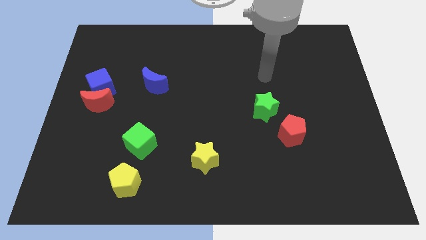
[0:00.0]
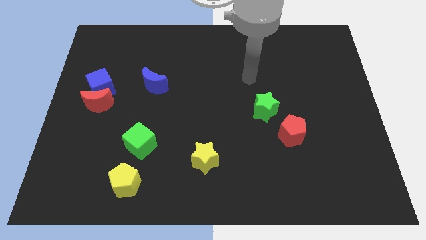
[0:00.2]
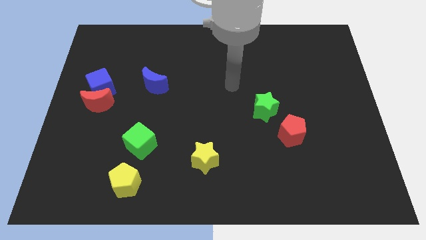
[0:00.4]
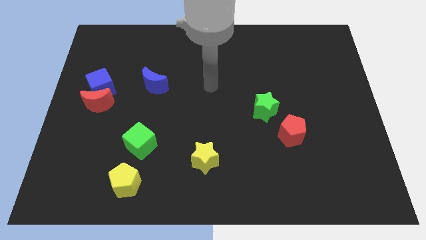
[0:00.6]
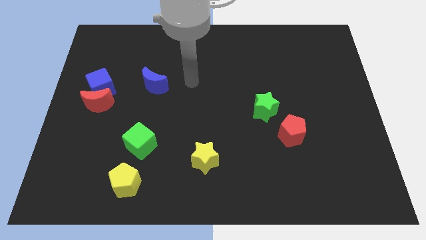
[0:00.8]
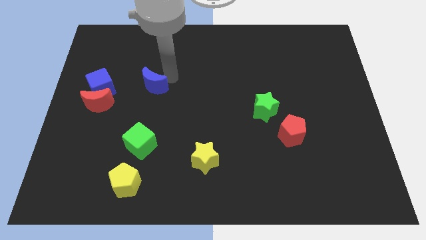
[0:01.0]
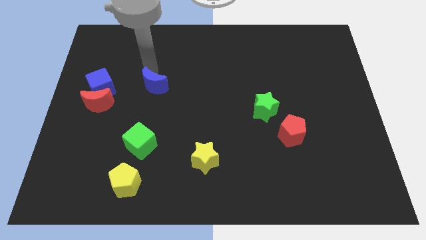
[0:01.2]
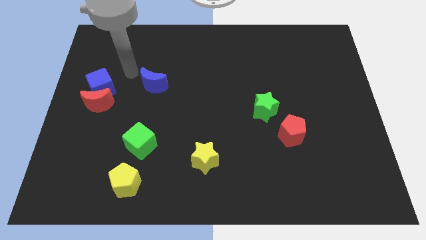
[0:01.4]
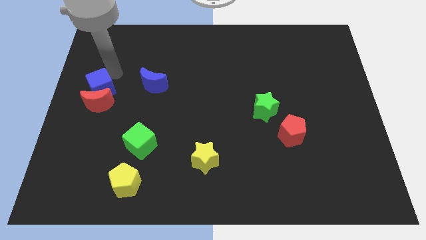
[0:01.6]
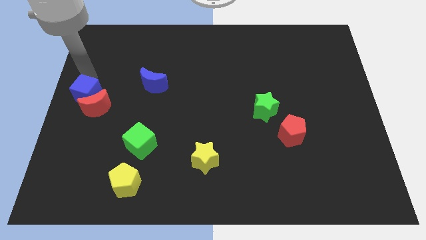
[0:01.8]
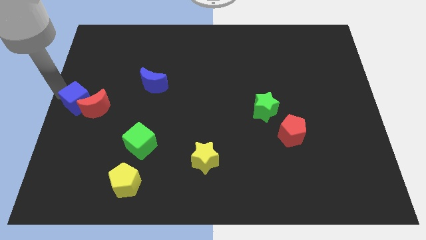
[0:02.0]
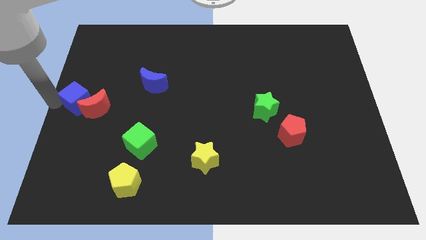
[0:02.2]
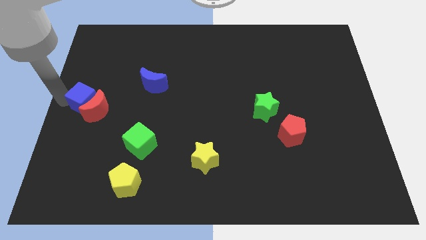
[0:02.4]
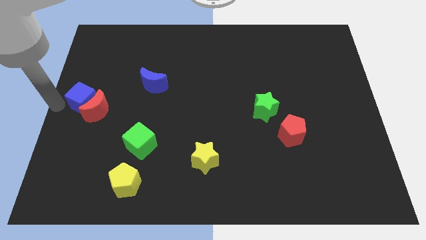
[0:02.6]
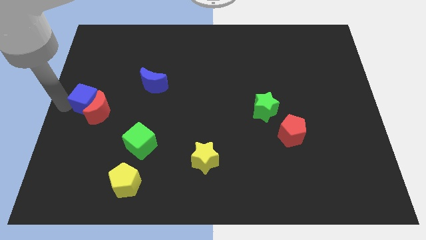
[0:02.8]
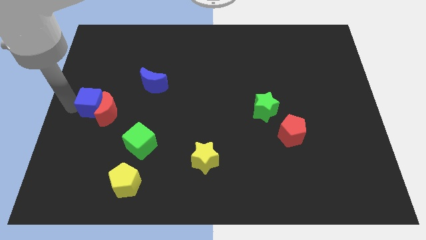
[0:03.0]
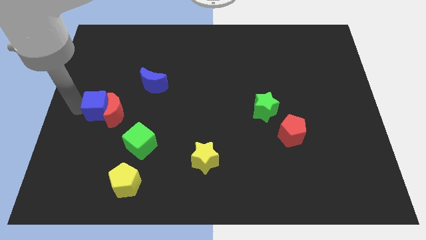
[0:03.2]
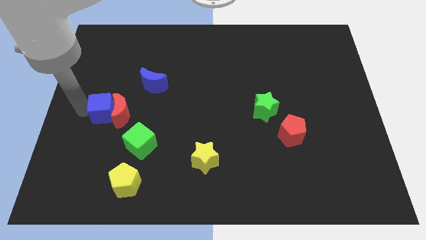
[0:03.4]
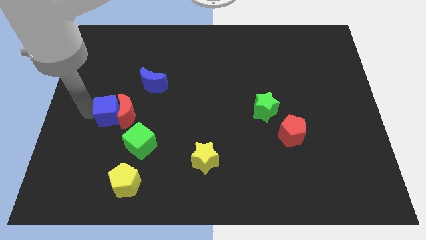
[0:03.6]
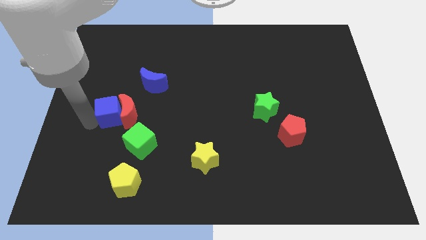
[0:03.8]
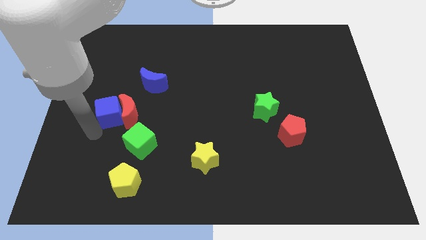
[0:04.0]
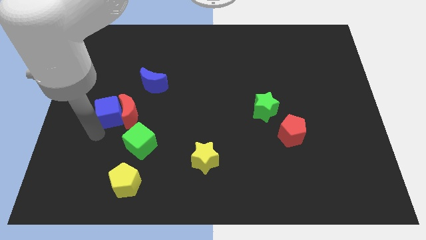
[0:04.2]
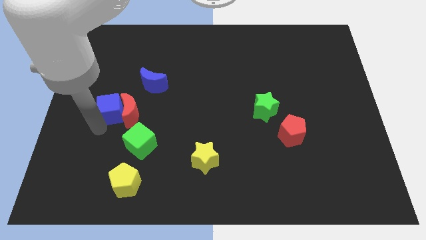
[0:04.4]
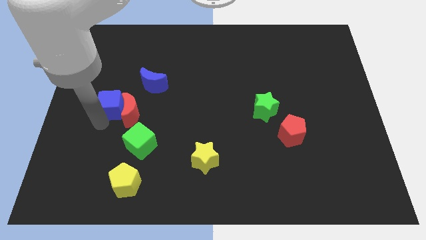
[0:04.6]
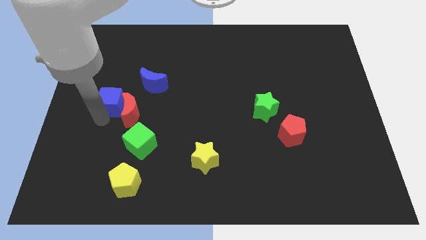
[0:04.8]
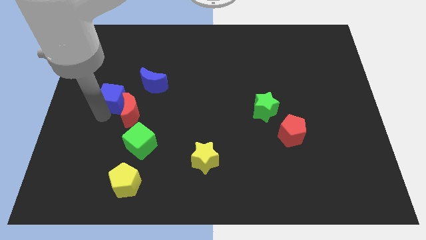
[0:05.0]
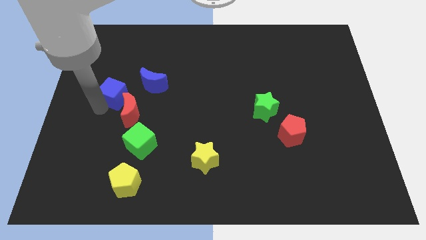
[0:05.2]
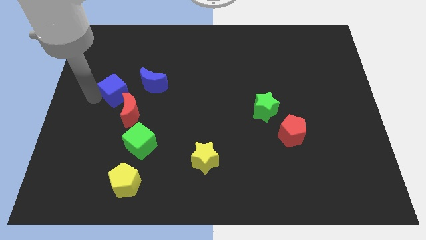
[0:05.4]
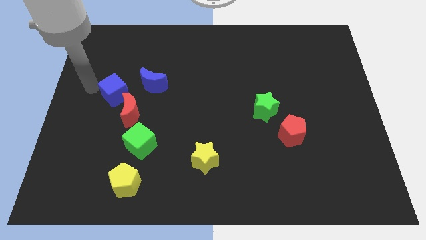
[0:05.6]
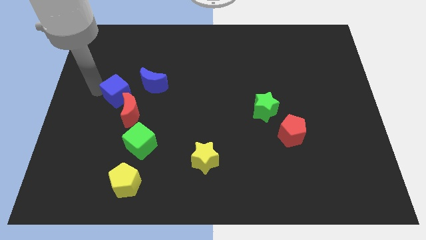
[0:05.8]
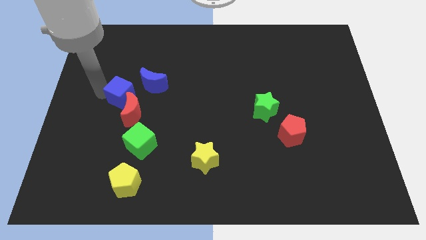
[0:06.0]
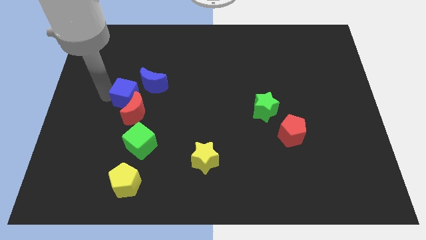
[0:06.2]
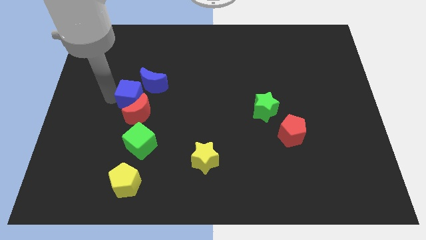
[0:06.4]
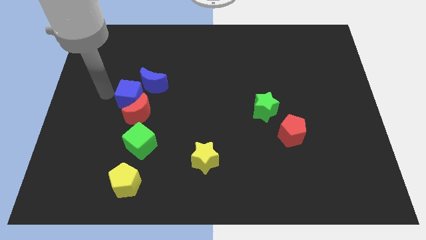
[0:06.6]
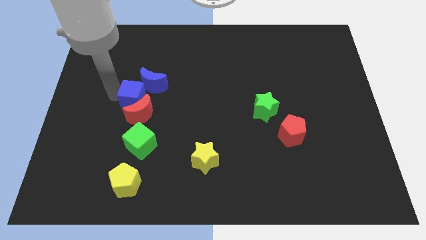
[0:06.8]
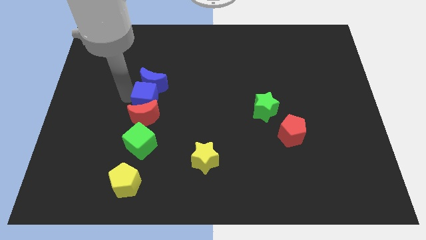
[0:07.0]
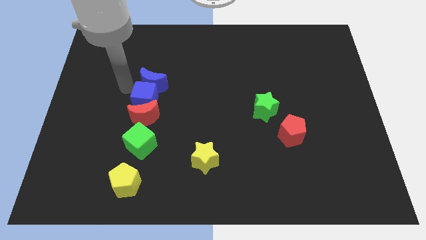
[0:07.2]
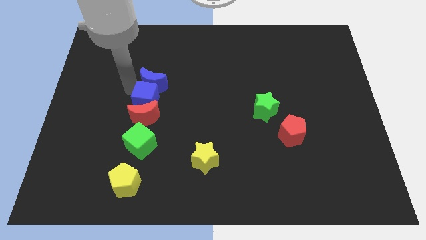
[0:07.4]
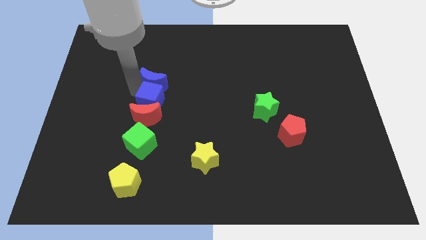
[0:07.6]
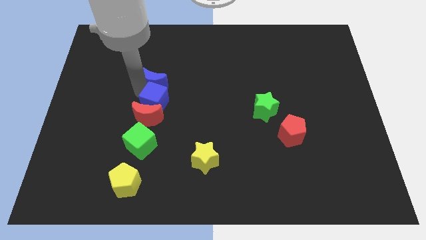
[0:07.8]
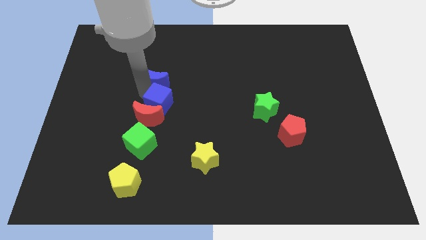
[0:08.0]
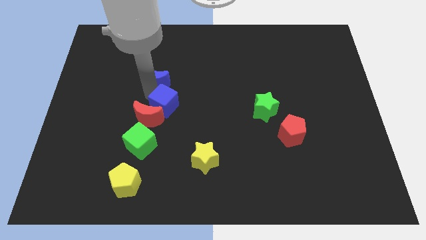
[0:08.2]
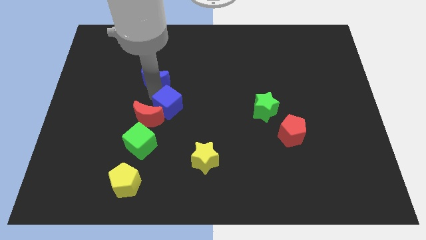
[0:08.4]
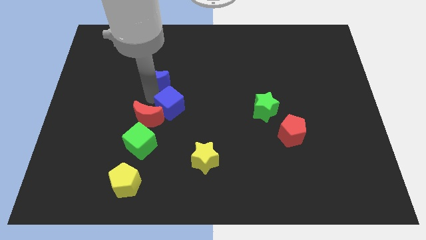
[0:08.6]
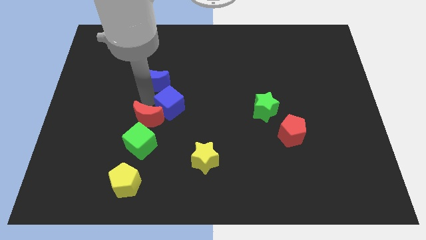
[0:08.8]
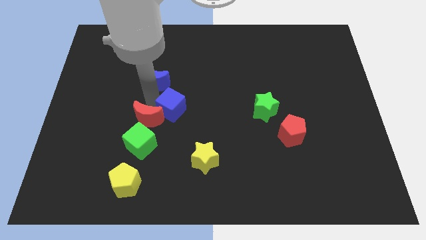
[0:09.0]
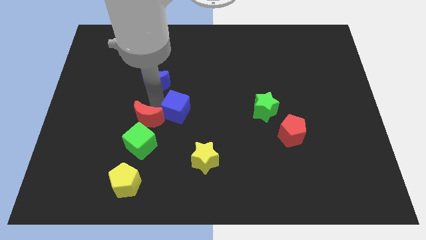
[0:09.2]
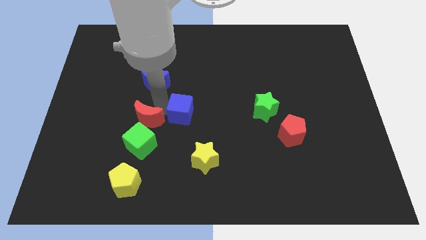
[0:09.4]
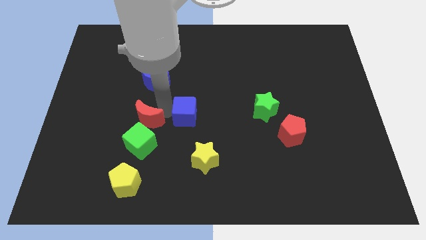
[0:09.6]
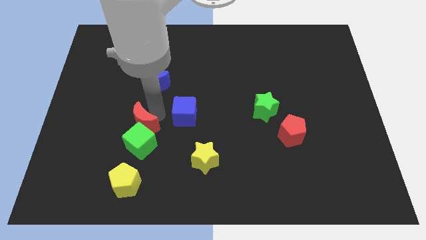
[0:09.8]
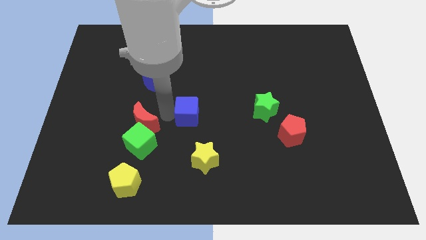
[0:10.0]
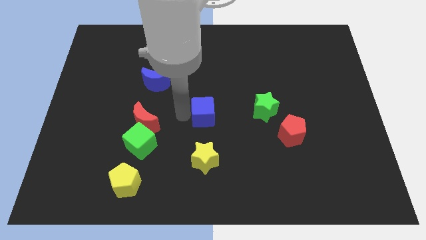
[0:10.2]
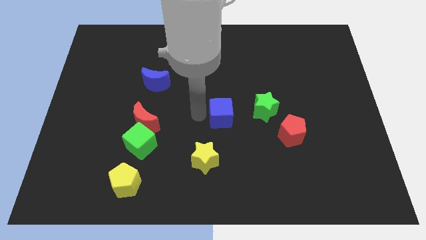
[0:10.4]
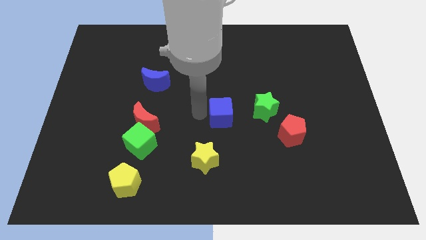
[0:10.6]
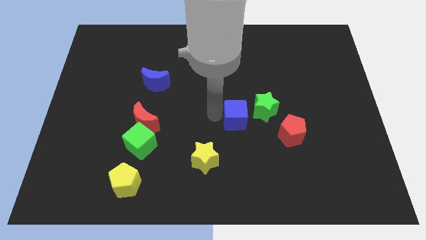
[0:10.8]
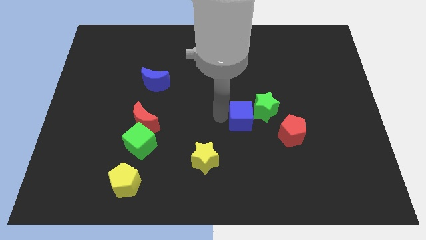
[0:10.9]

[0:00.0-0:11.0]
move the blue cube next to the green star

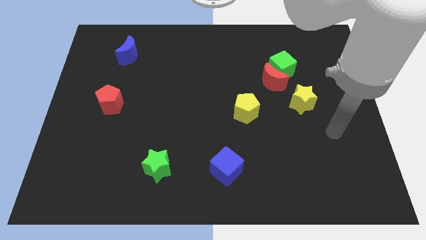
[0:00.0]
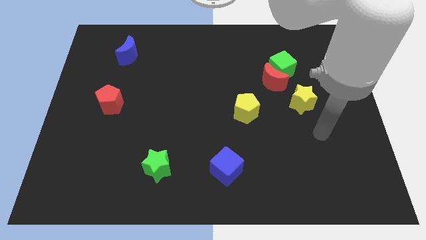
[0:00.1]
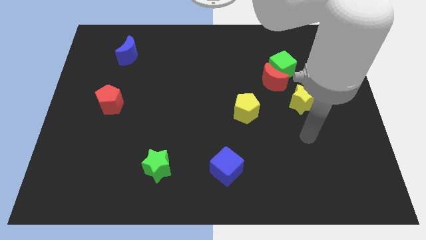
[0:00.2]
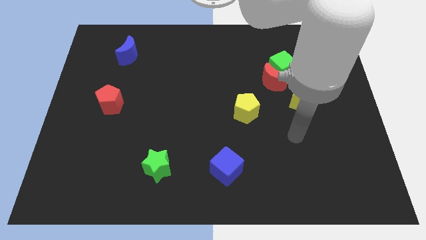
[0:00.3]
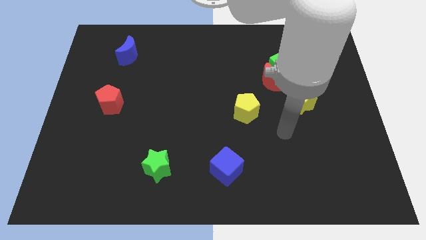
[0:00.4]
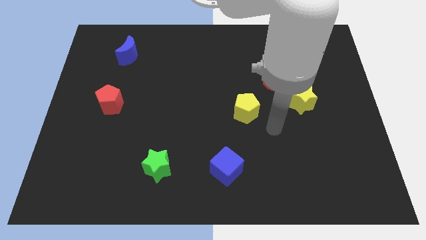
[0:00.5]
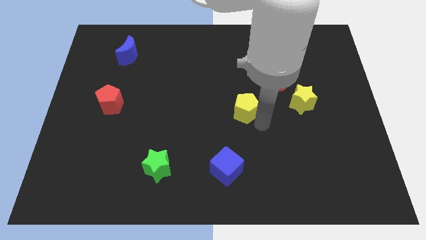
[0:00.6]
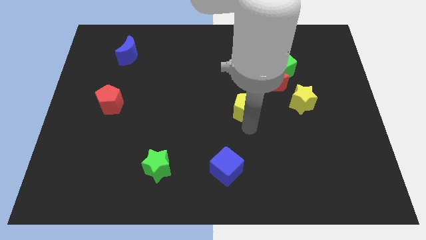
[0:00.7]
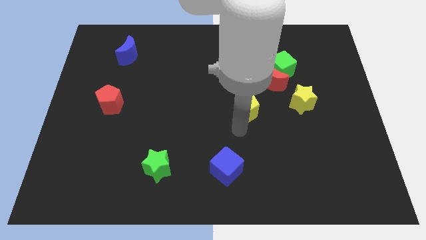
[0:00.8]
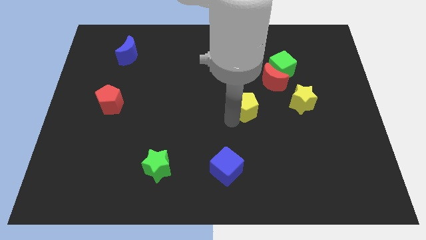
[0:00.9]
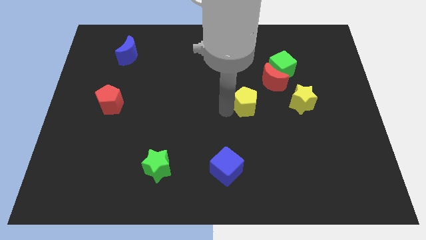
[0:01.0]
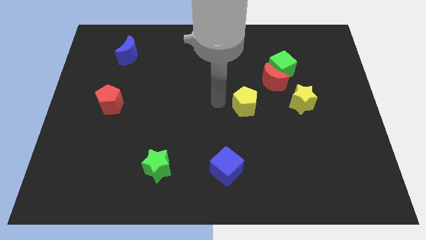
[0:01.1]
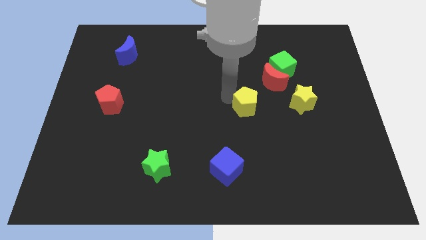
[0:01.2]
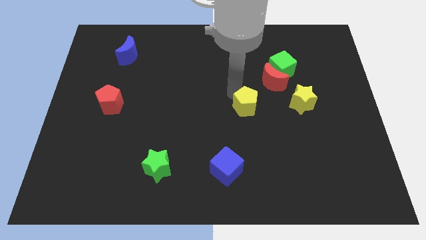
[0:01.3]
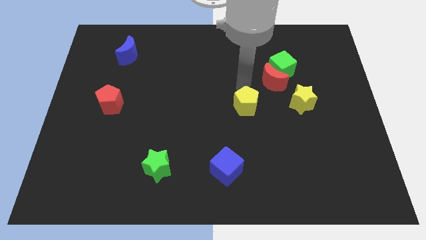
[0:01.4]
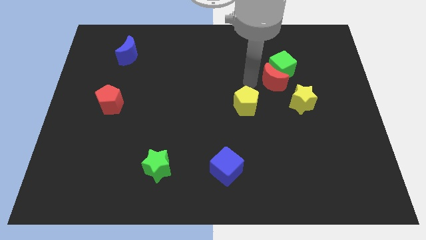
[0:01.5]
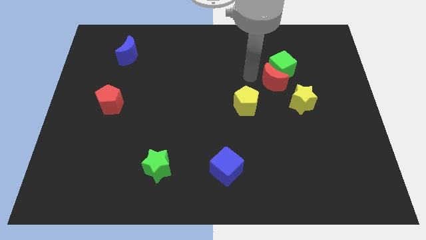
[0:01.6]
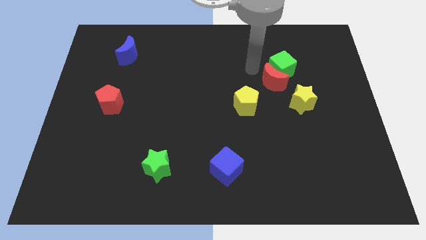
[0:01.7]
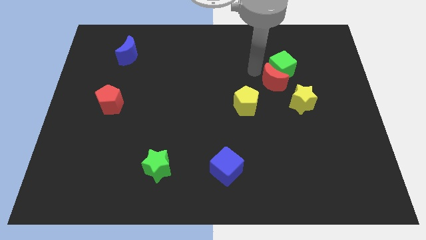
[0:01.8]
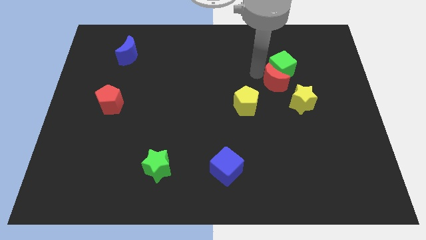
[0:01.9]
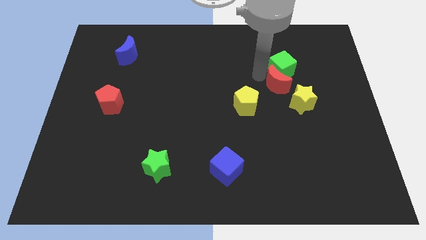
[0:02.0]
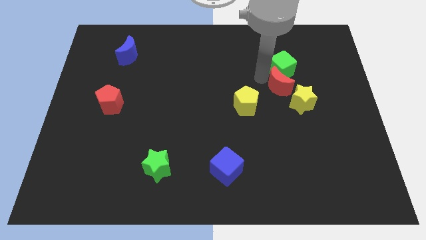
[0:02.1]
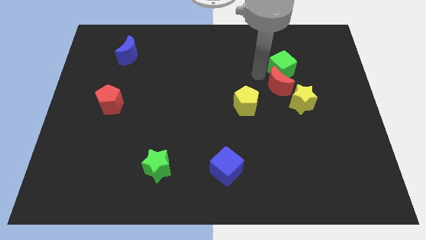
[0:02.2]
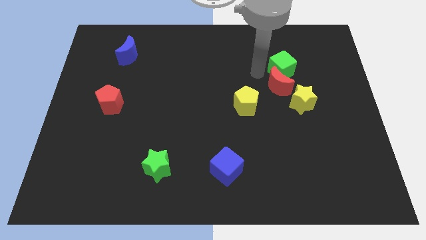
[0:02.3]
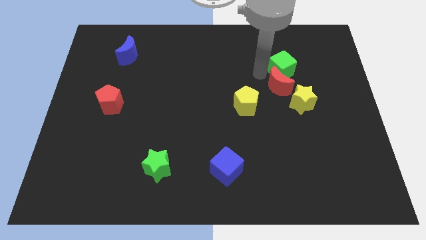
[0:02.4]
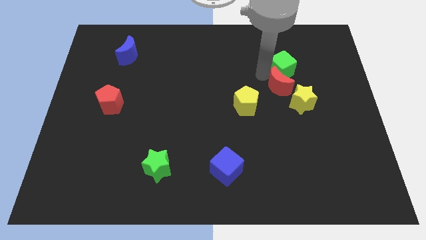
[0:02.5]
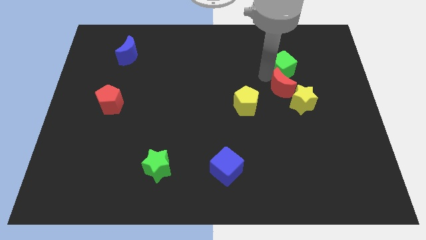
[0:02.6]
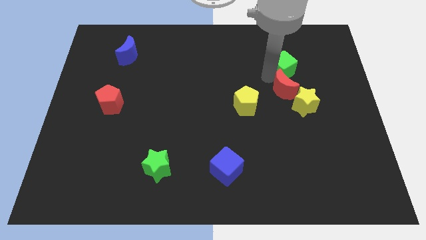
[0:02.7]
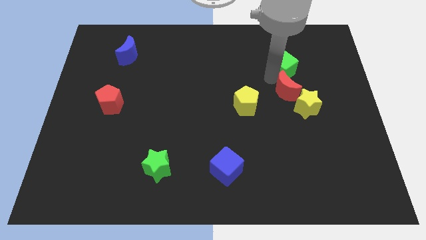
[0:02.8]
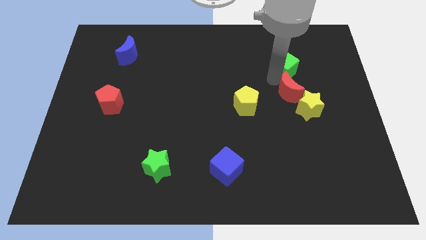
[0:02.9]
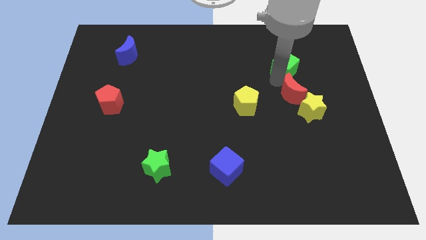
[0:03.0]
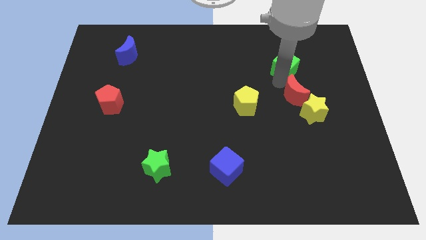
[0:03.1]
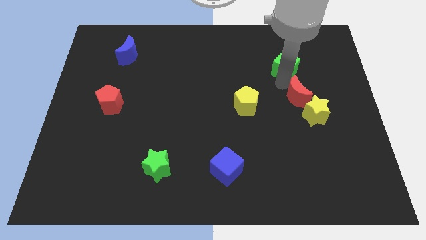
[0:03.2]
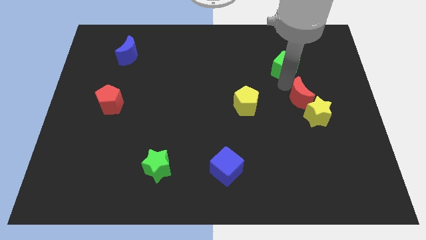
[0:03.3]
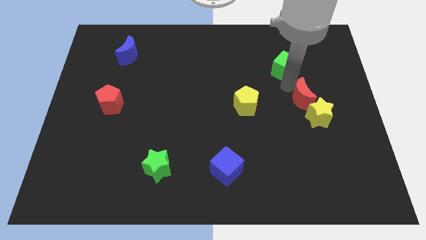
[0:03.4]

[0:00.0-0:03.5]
move the red moon to the yellow star
